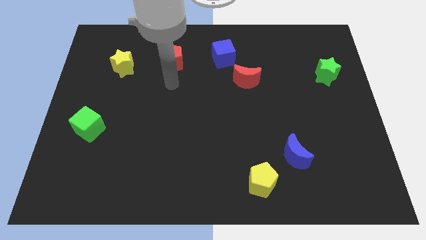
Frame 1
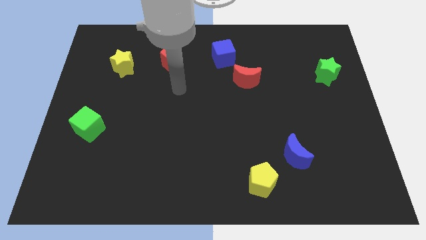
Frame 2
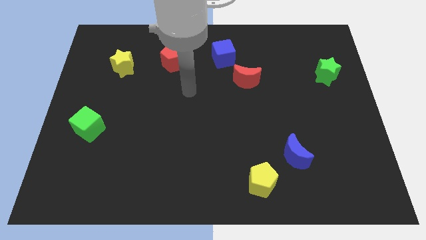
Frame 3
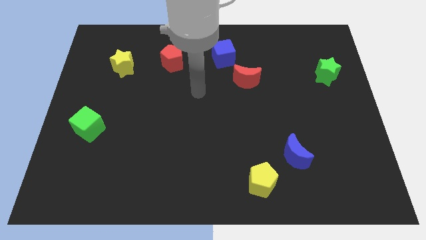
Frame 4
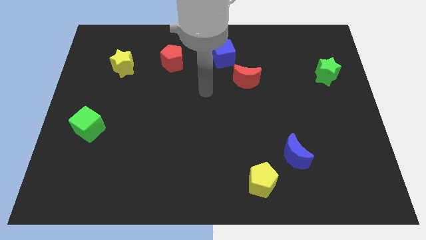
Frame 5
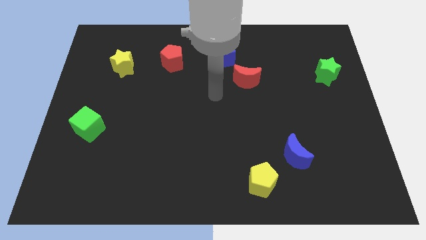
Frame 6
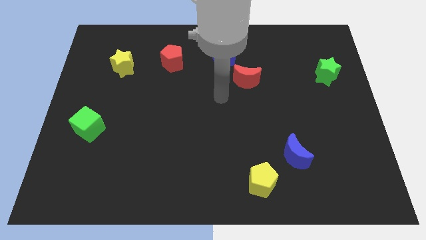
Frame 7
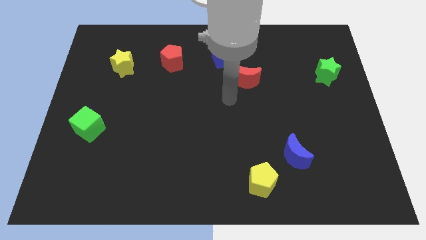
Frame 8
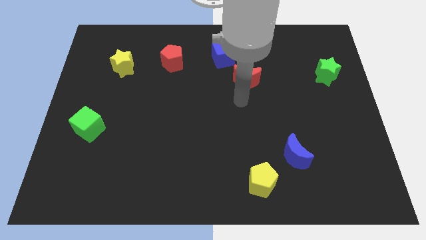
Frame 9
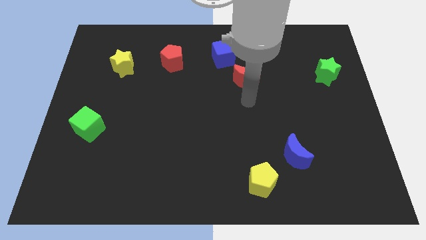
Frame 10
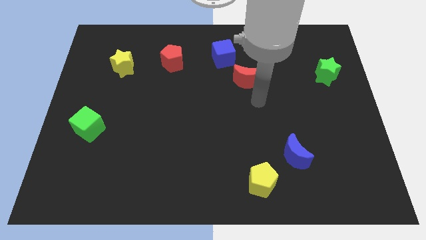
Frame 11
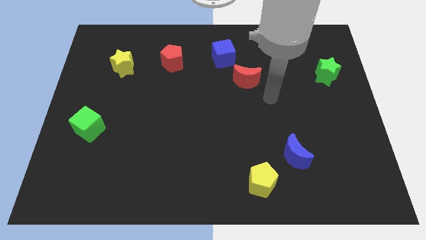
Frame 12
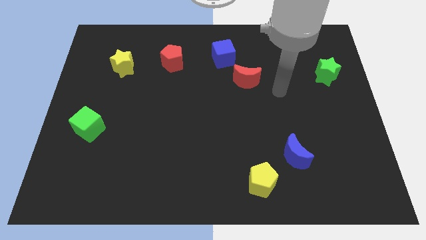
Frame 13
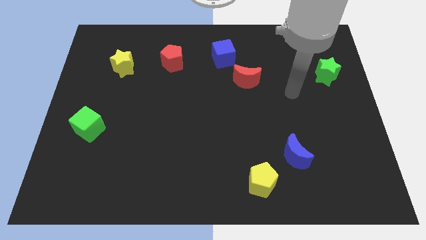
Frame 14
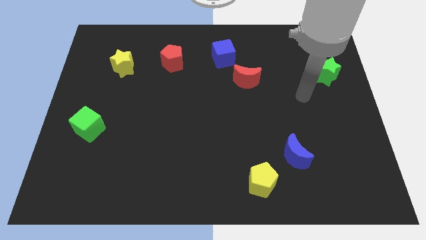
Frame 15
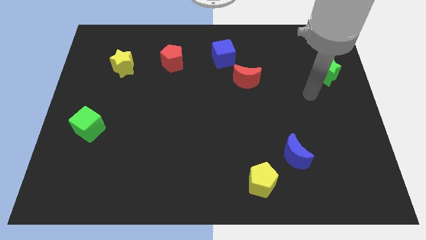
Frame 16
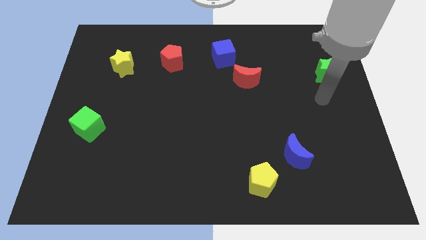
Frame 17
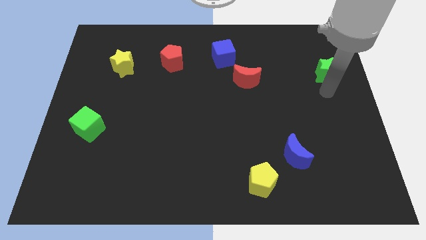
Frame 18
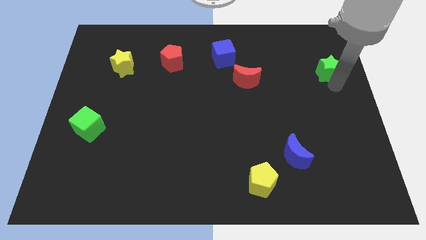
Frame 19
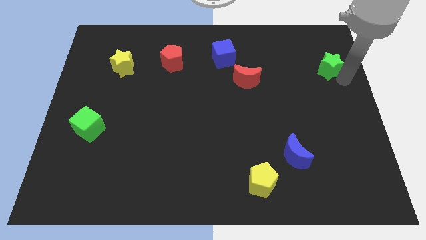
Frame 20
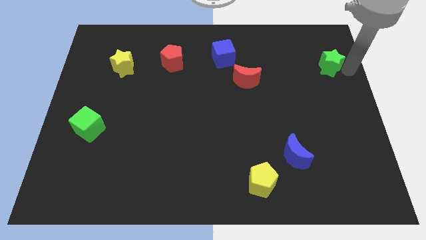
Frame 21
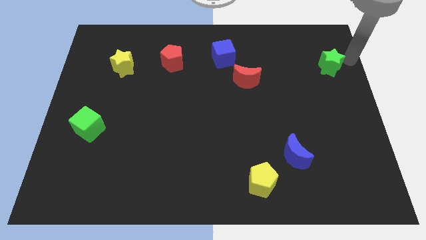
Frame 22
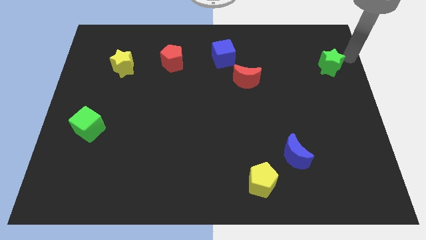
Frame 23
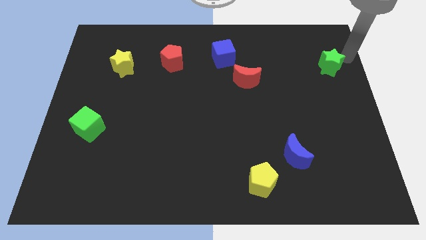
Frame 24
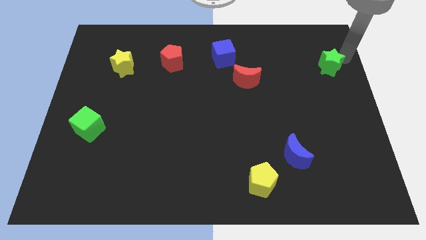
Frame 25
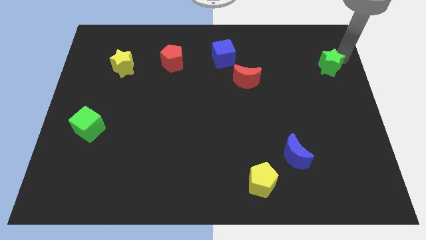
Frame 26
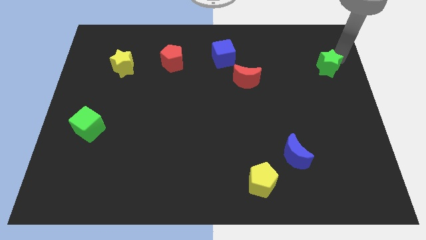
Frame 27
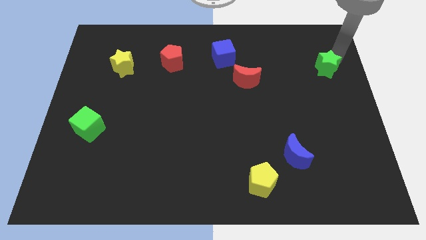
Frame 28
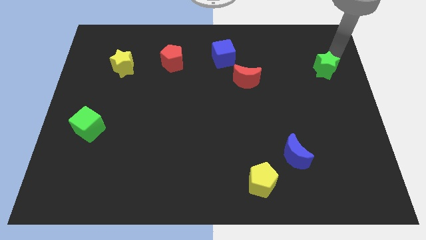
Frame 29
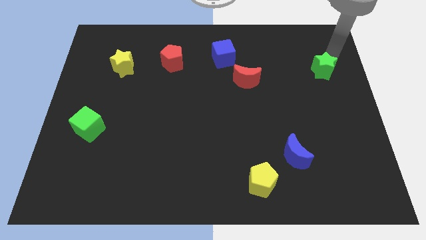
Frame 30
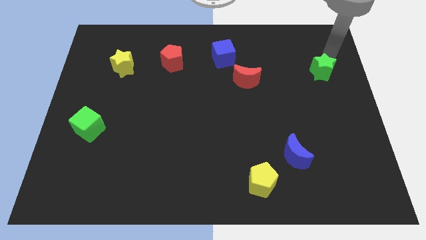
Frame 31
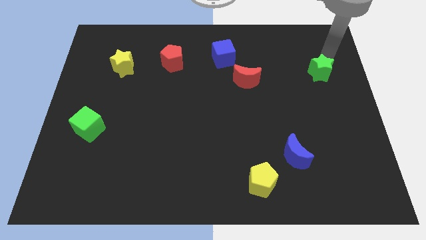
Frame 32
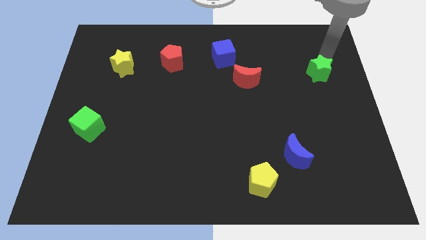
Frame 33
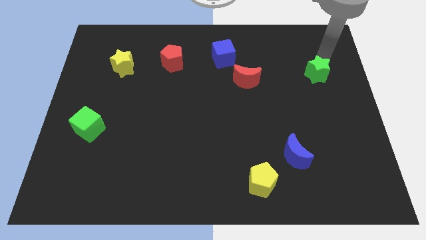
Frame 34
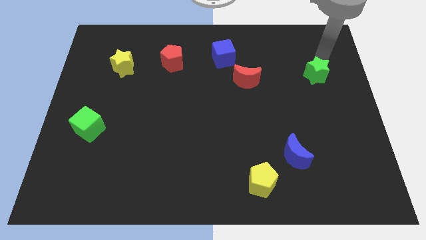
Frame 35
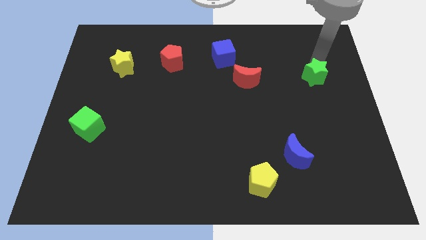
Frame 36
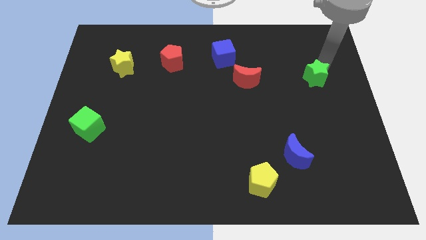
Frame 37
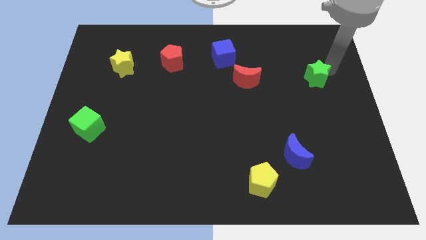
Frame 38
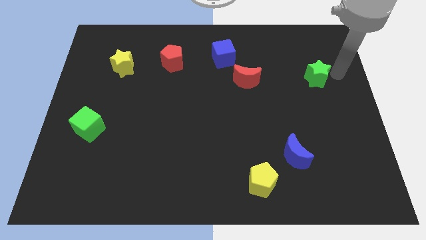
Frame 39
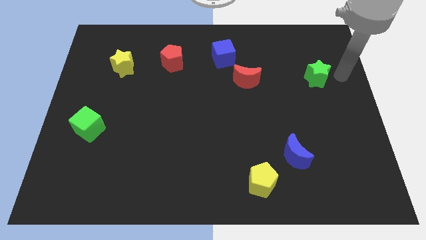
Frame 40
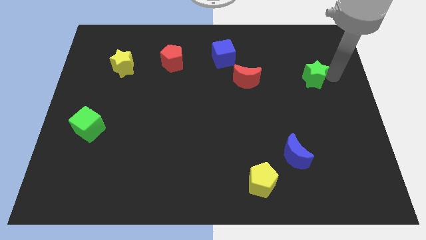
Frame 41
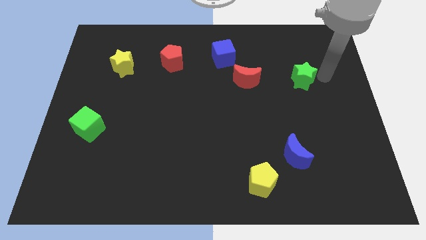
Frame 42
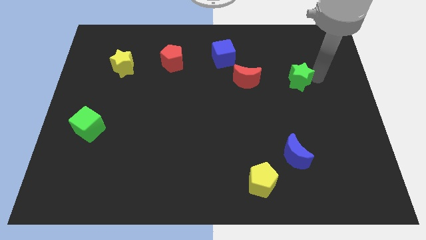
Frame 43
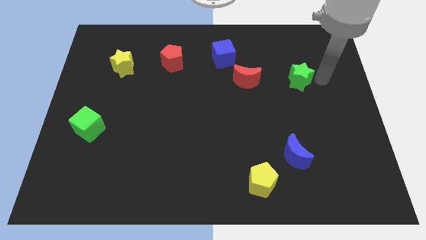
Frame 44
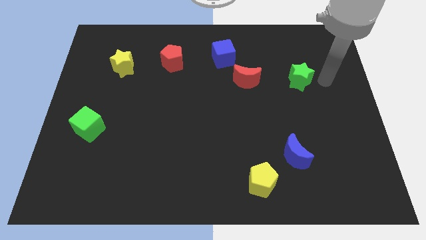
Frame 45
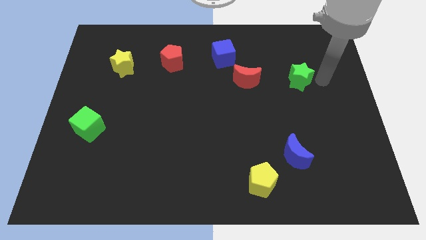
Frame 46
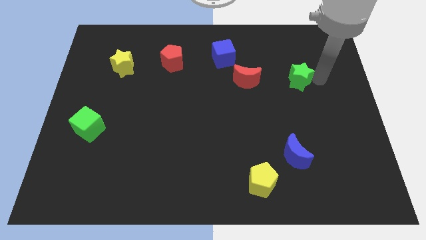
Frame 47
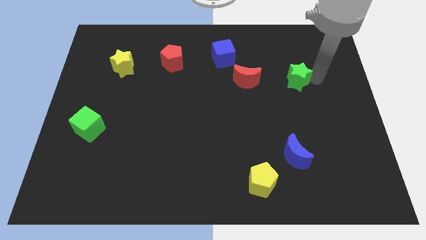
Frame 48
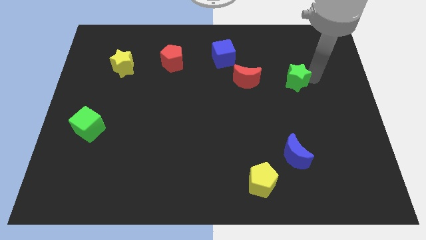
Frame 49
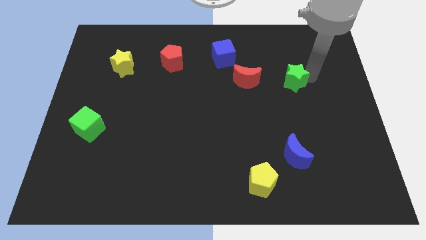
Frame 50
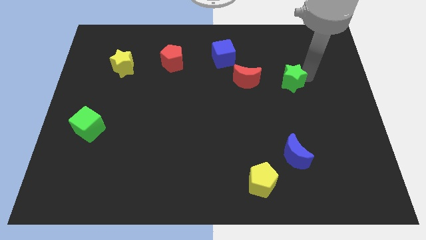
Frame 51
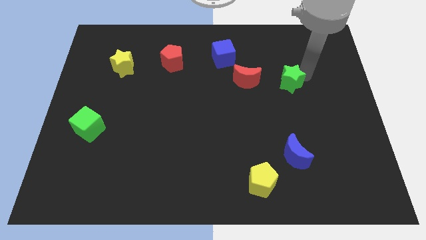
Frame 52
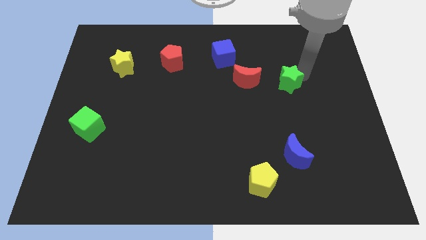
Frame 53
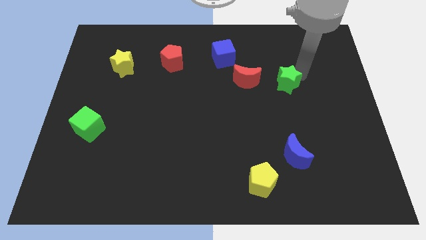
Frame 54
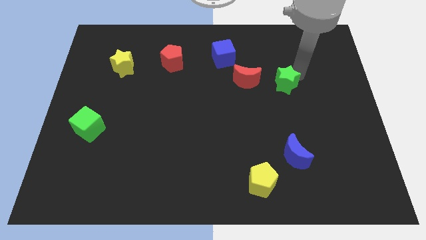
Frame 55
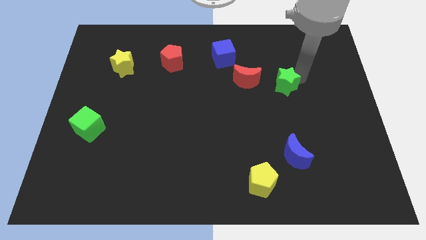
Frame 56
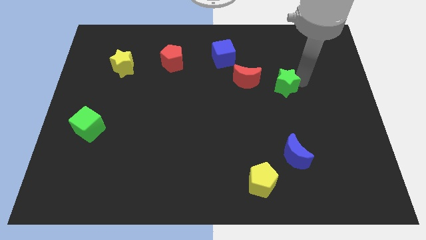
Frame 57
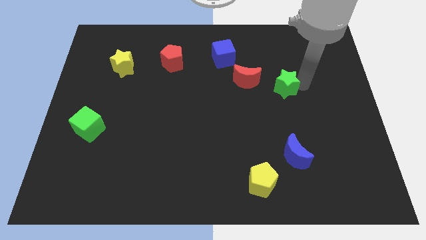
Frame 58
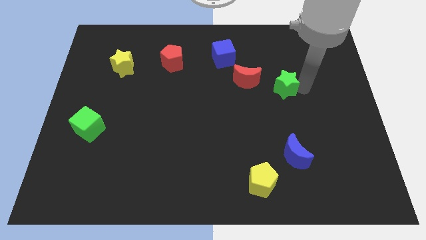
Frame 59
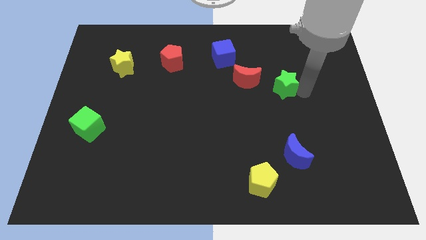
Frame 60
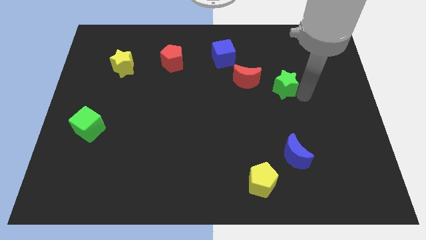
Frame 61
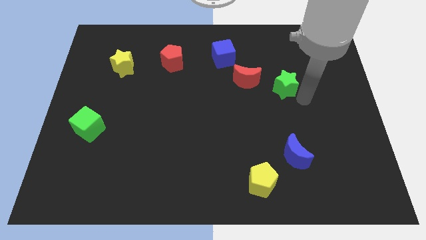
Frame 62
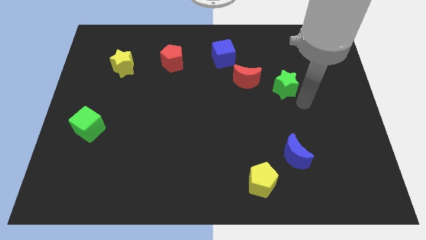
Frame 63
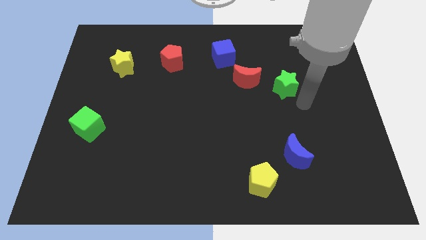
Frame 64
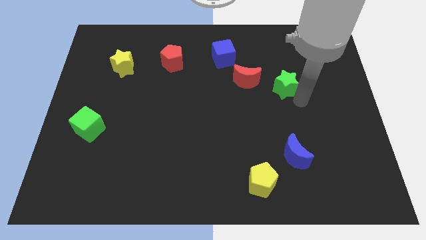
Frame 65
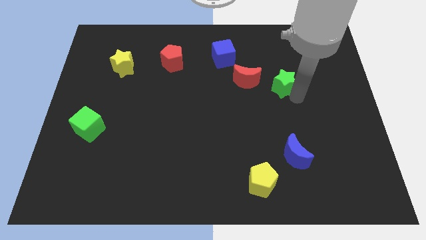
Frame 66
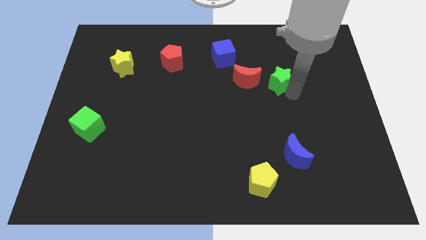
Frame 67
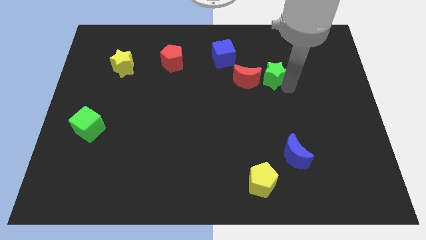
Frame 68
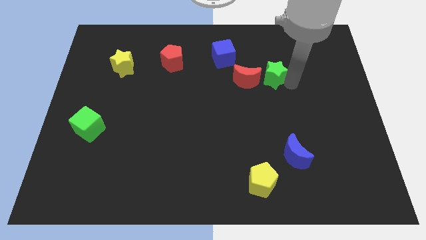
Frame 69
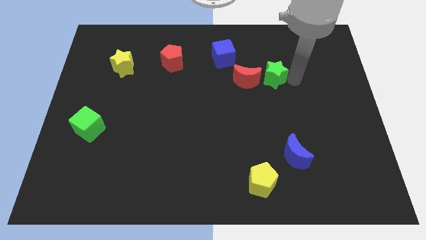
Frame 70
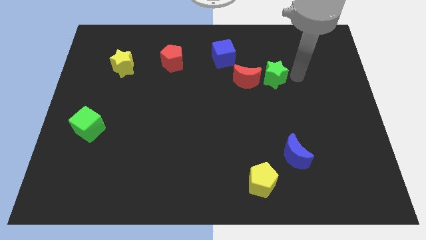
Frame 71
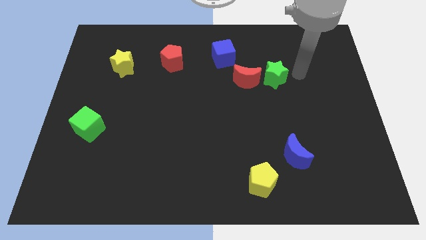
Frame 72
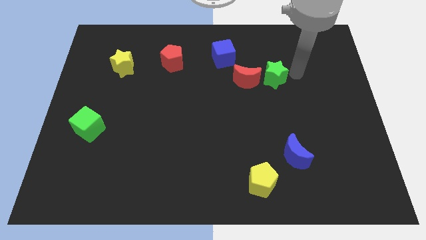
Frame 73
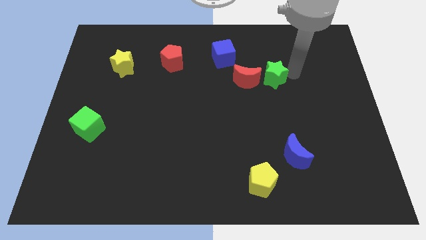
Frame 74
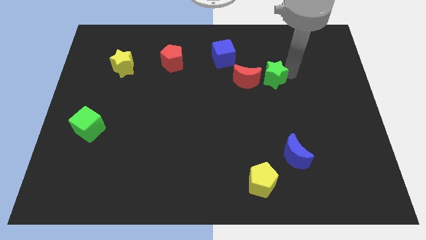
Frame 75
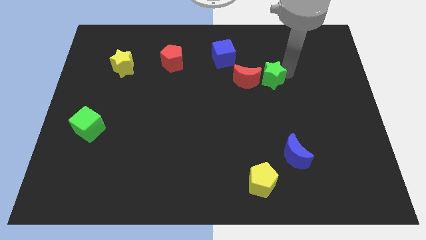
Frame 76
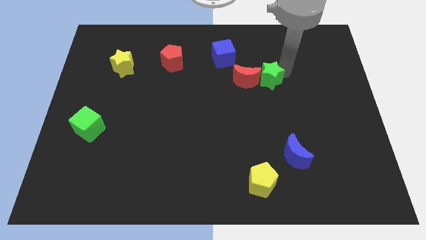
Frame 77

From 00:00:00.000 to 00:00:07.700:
slide the green star to the red moon
